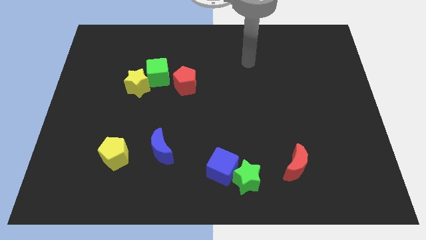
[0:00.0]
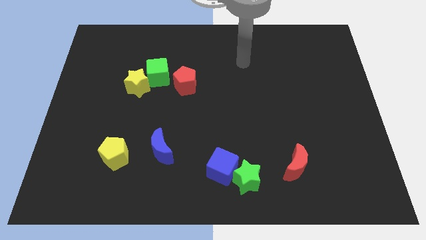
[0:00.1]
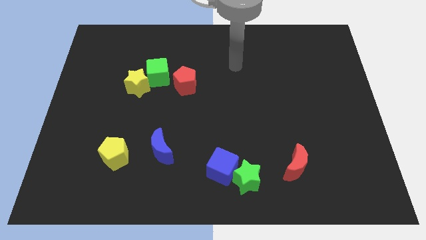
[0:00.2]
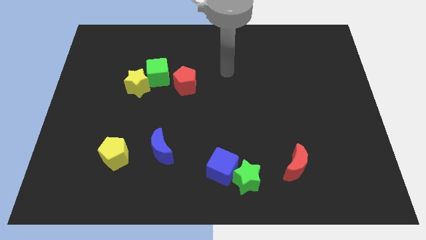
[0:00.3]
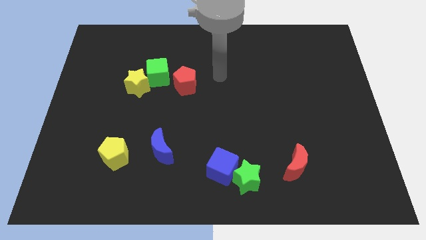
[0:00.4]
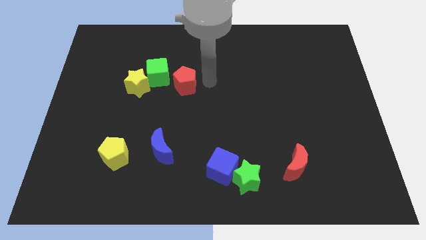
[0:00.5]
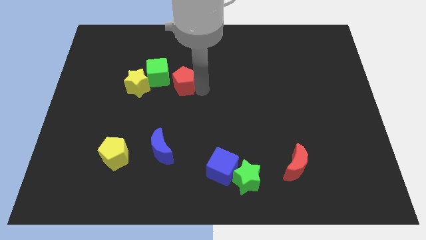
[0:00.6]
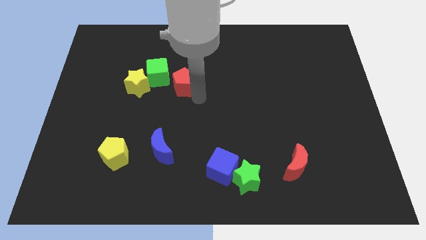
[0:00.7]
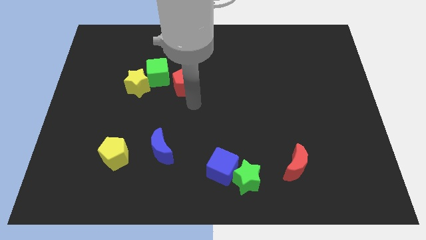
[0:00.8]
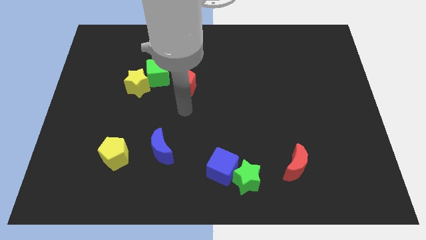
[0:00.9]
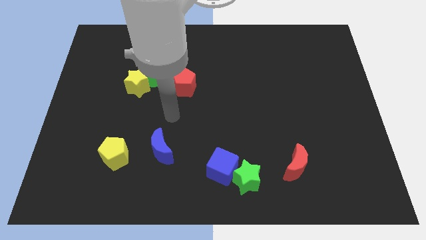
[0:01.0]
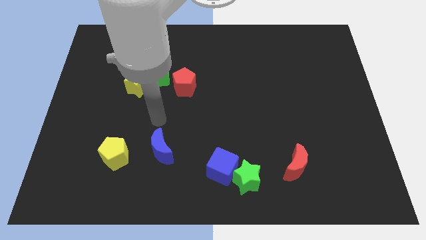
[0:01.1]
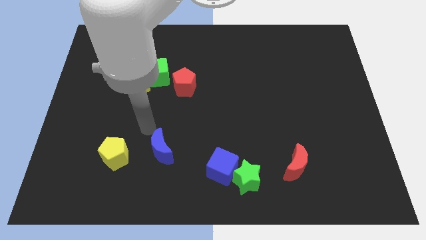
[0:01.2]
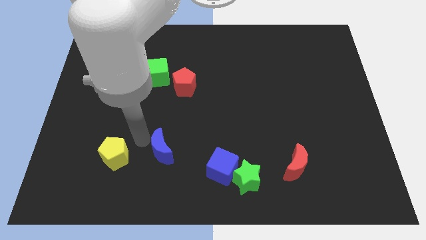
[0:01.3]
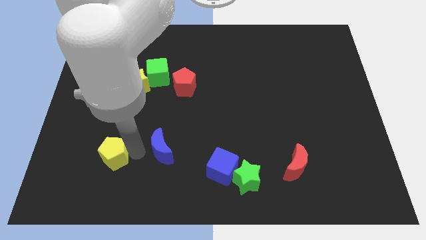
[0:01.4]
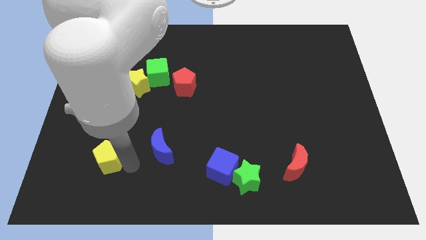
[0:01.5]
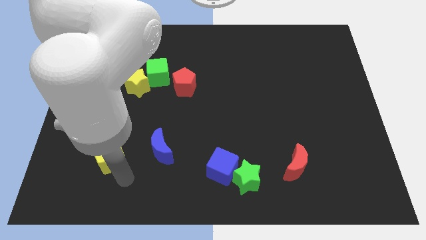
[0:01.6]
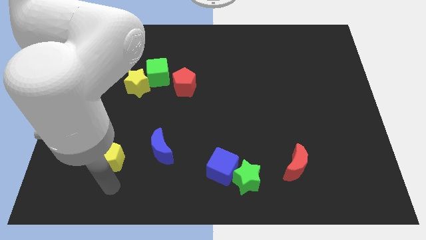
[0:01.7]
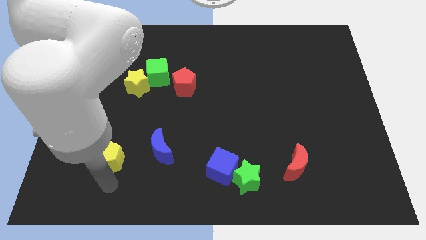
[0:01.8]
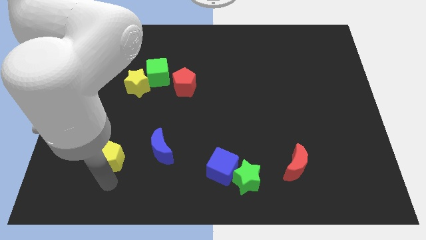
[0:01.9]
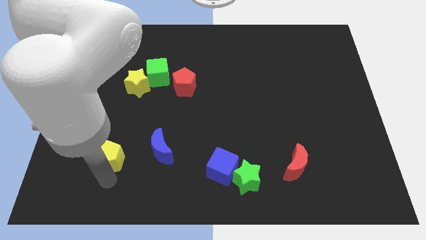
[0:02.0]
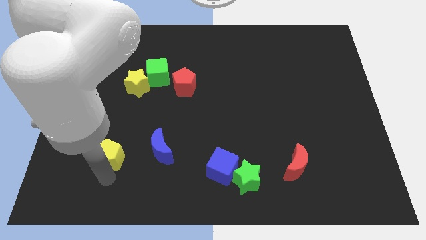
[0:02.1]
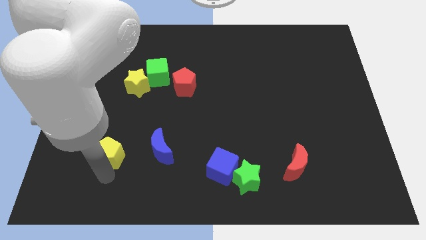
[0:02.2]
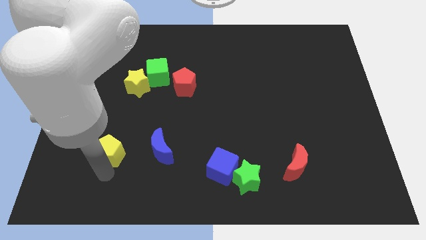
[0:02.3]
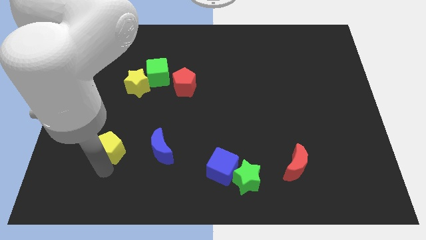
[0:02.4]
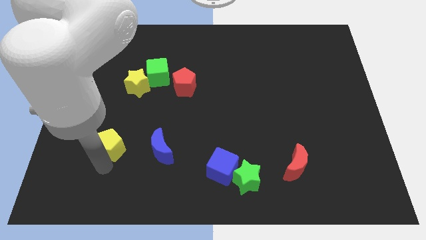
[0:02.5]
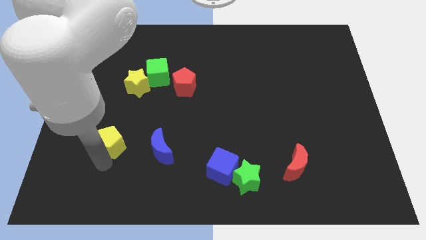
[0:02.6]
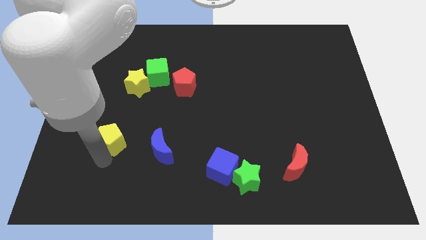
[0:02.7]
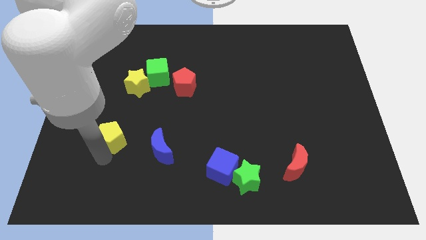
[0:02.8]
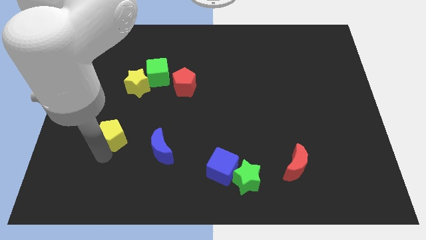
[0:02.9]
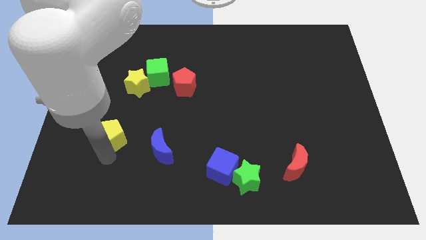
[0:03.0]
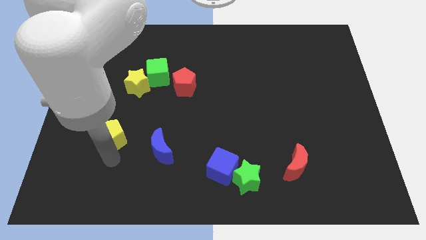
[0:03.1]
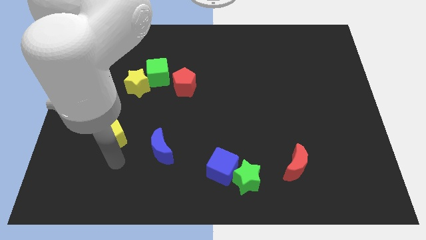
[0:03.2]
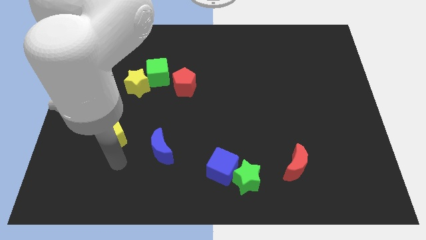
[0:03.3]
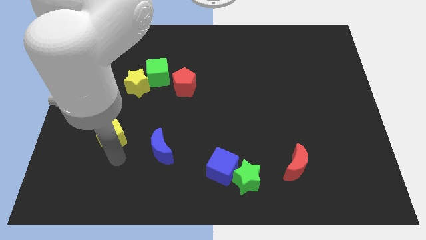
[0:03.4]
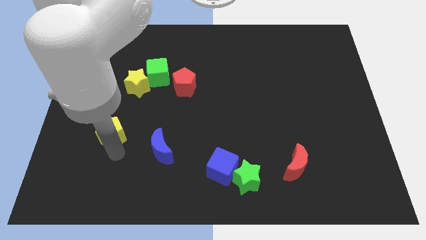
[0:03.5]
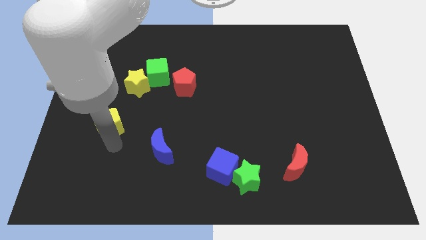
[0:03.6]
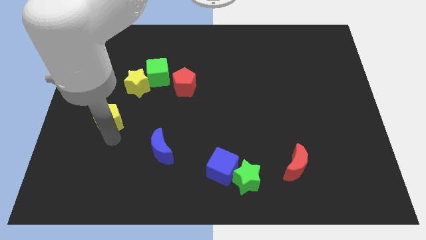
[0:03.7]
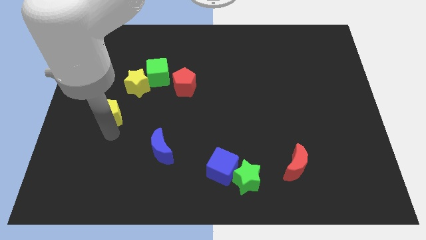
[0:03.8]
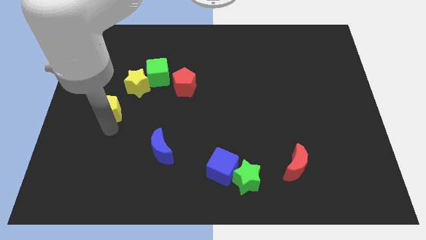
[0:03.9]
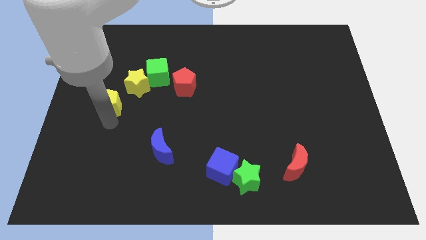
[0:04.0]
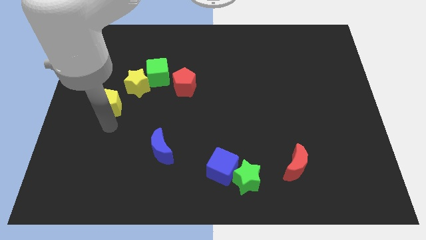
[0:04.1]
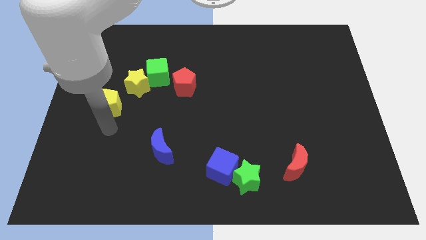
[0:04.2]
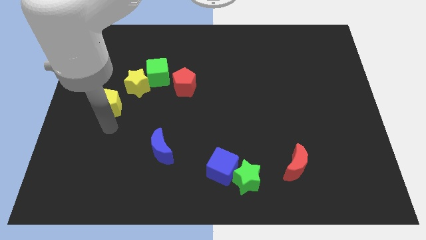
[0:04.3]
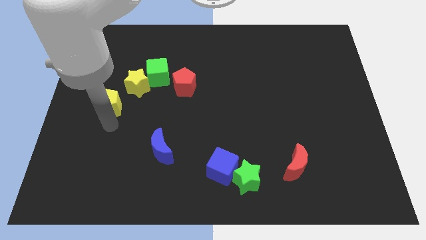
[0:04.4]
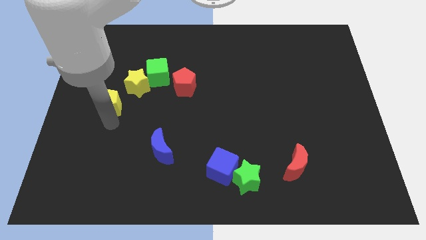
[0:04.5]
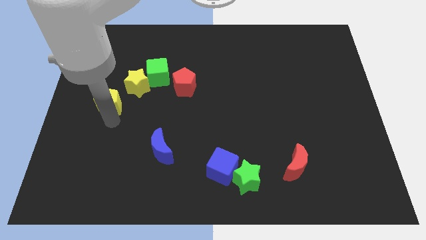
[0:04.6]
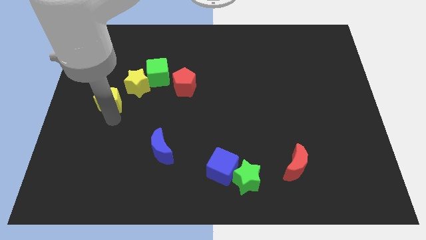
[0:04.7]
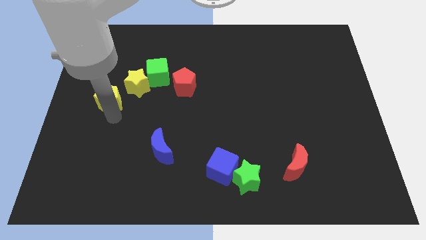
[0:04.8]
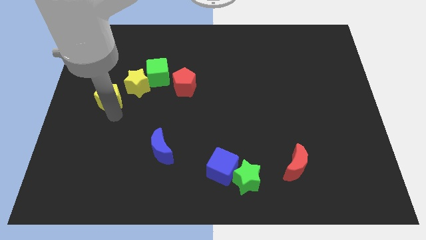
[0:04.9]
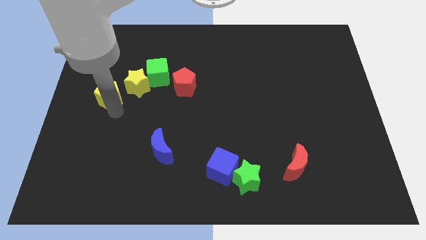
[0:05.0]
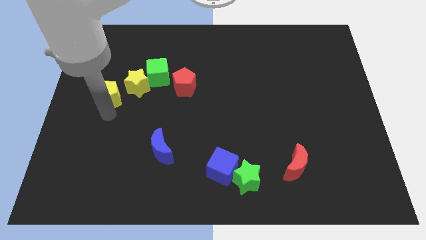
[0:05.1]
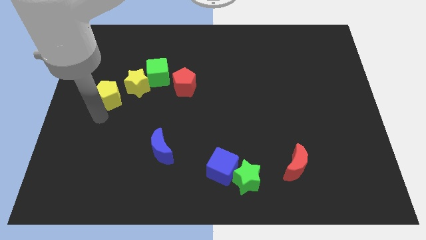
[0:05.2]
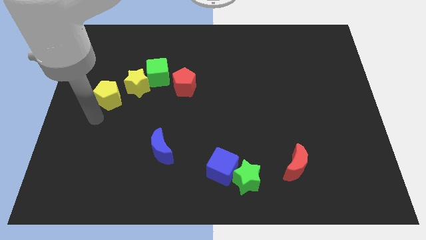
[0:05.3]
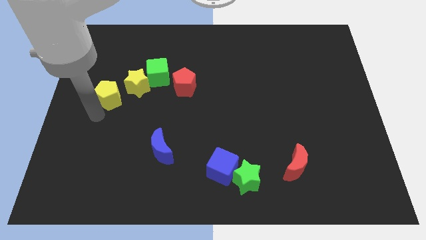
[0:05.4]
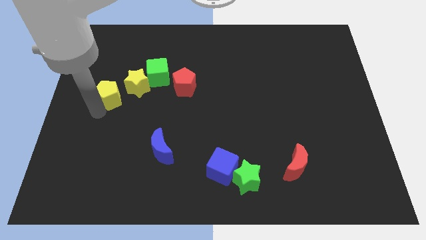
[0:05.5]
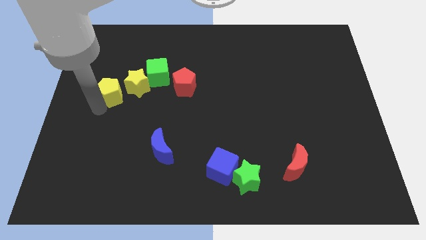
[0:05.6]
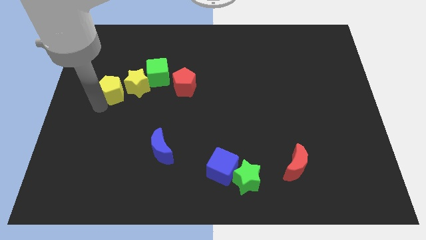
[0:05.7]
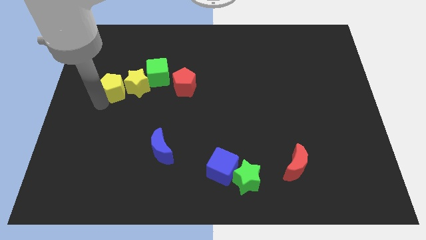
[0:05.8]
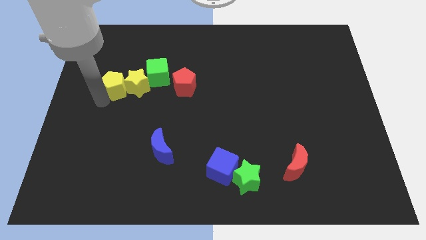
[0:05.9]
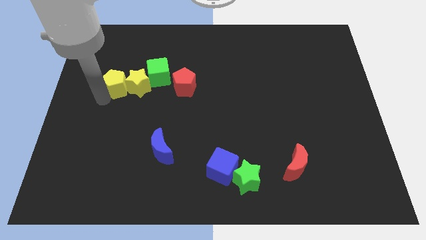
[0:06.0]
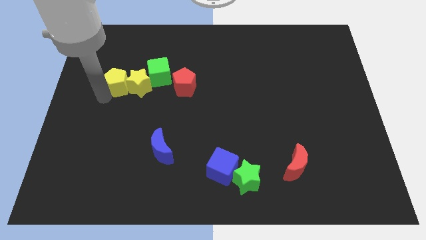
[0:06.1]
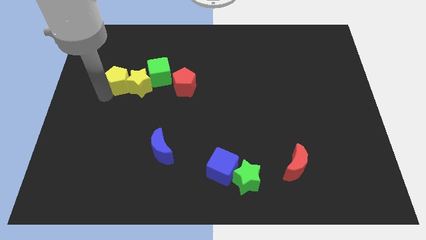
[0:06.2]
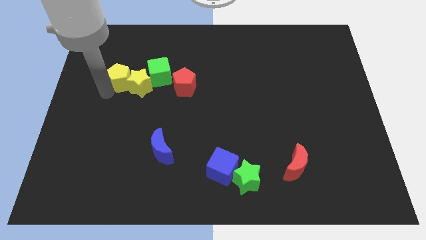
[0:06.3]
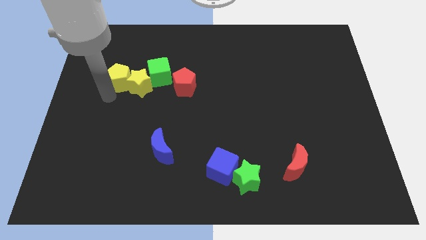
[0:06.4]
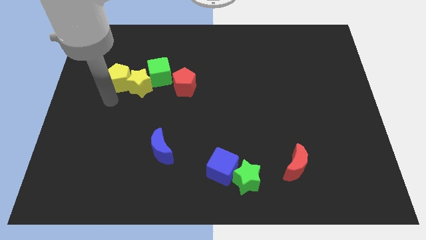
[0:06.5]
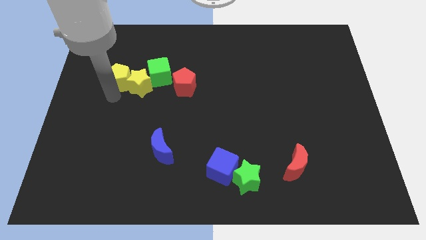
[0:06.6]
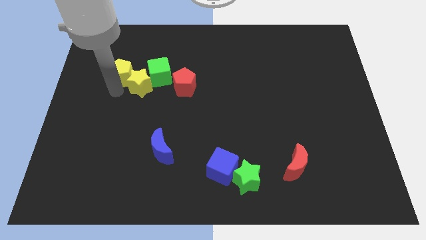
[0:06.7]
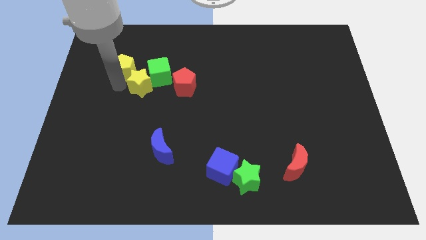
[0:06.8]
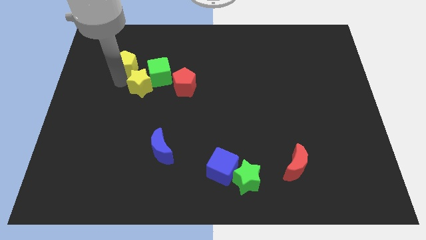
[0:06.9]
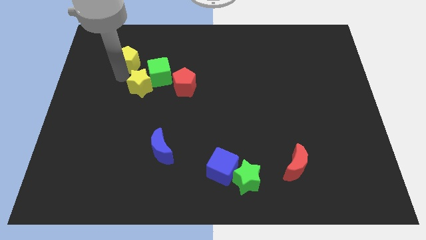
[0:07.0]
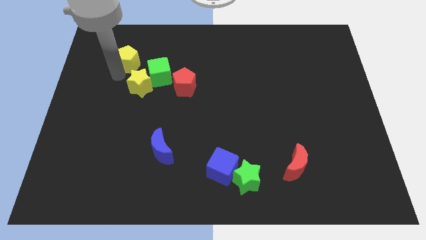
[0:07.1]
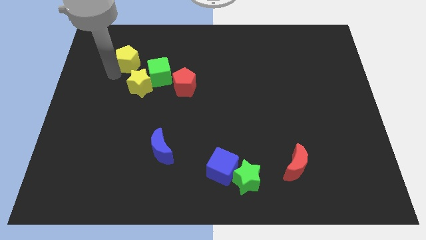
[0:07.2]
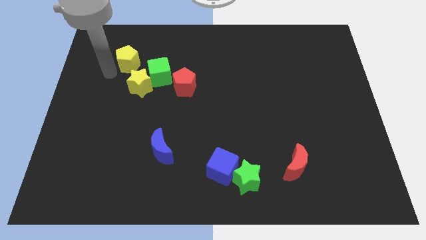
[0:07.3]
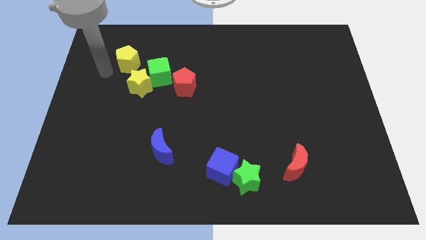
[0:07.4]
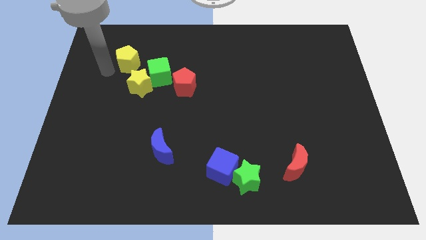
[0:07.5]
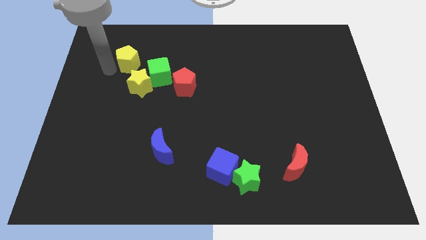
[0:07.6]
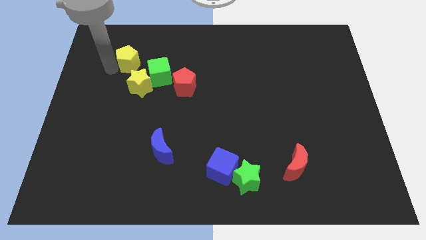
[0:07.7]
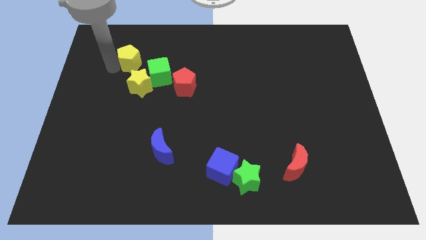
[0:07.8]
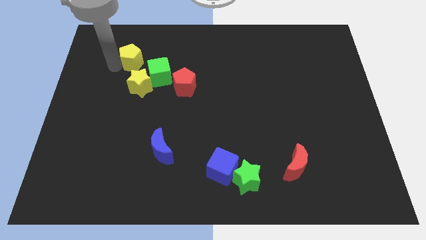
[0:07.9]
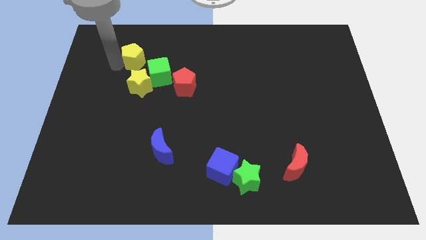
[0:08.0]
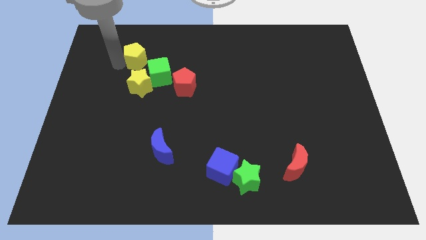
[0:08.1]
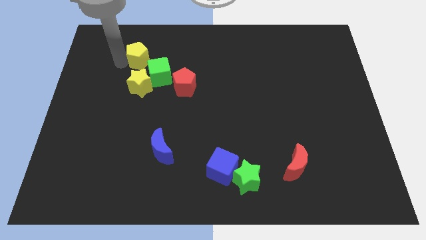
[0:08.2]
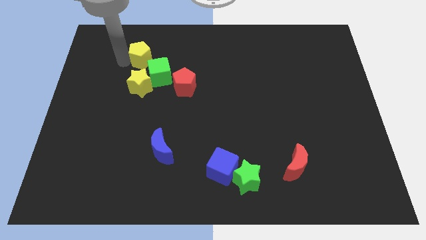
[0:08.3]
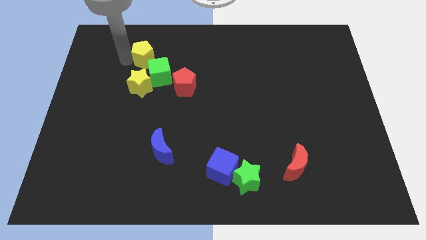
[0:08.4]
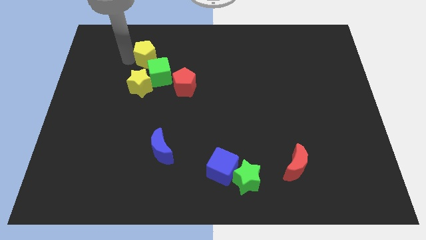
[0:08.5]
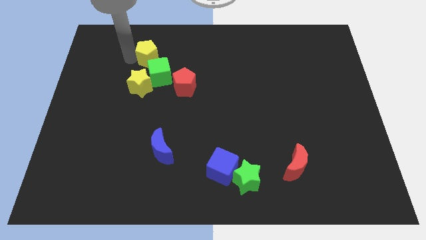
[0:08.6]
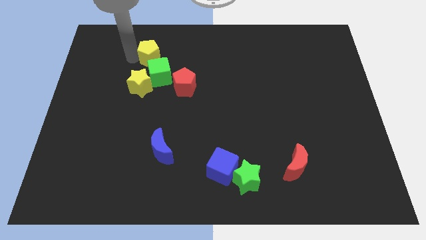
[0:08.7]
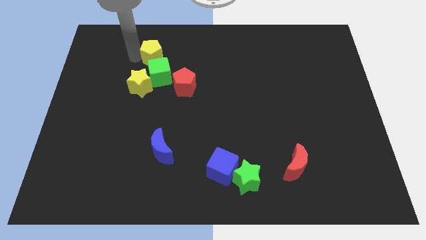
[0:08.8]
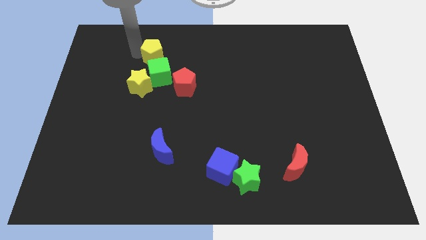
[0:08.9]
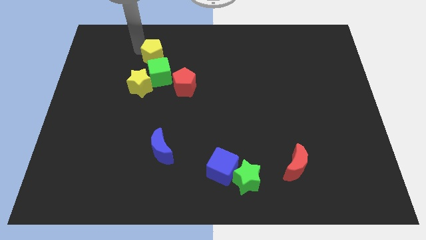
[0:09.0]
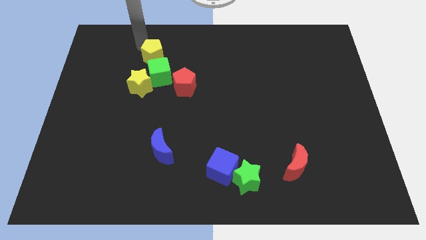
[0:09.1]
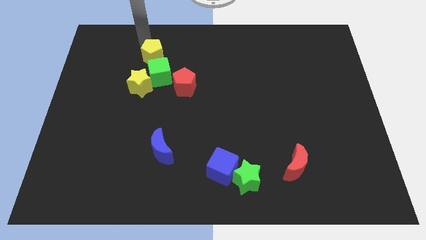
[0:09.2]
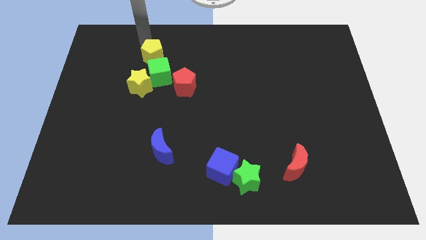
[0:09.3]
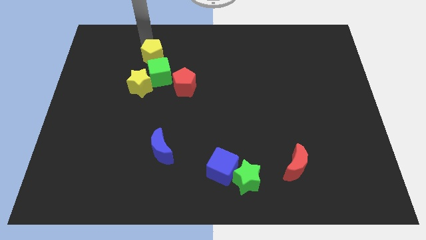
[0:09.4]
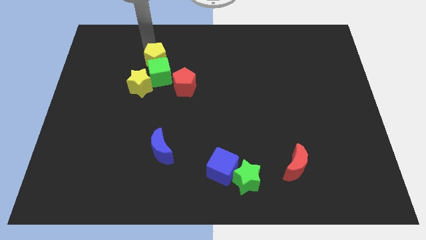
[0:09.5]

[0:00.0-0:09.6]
push the yellow pentagon diagonally up and to the right of the yellow star
